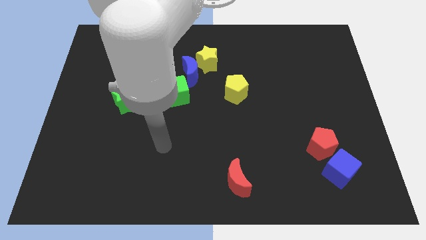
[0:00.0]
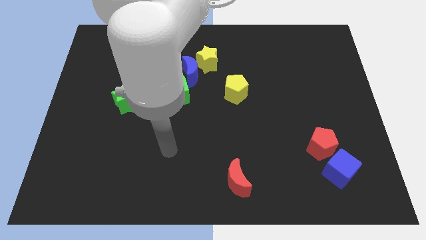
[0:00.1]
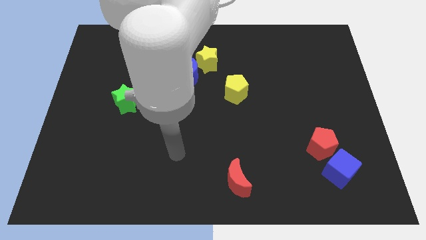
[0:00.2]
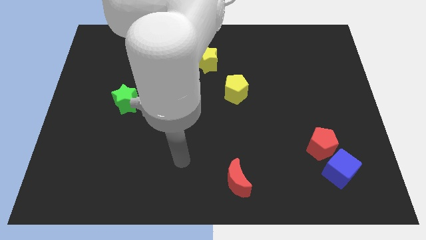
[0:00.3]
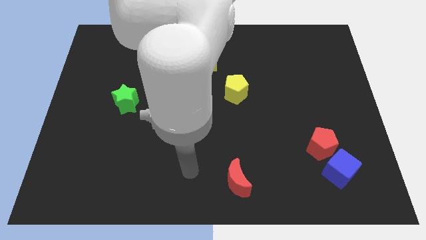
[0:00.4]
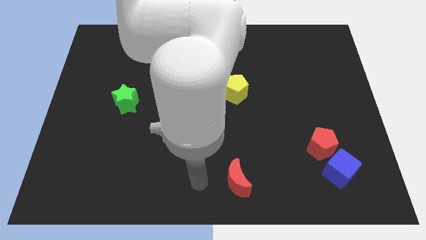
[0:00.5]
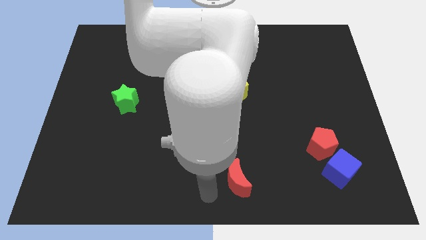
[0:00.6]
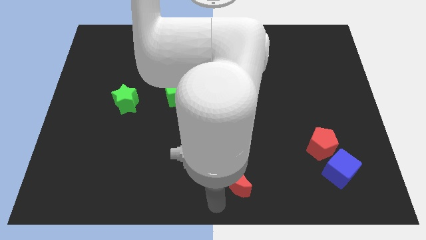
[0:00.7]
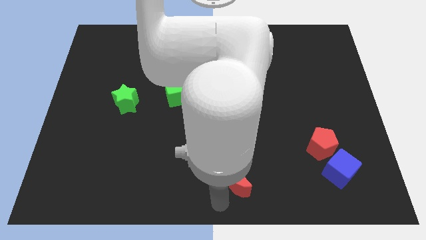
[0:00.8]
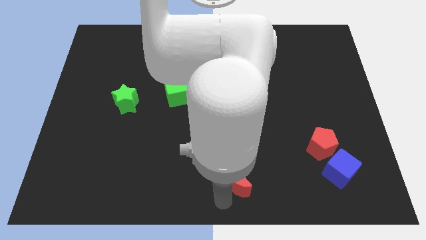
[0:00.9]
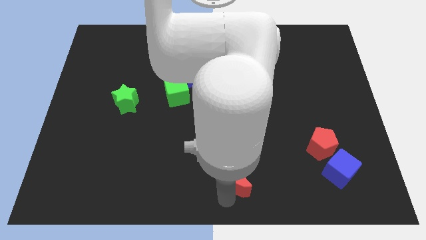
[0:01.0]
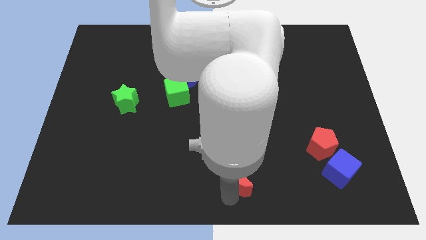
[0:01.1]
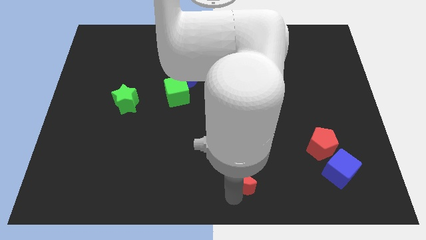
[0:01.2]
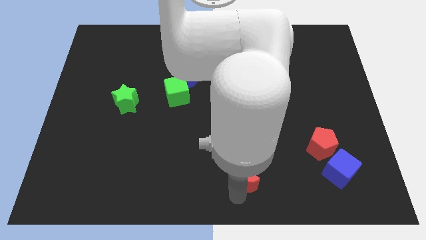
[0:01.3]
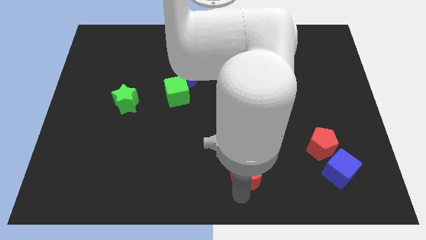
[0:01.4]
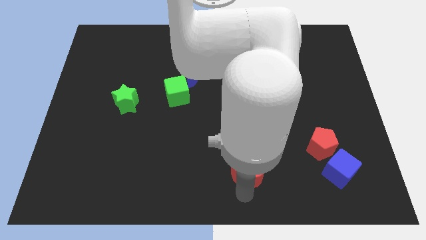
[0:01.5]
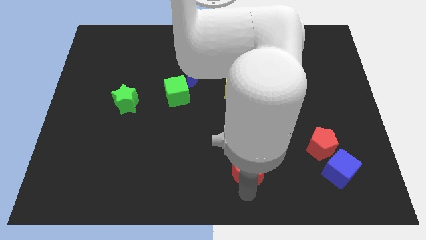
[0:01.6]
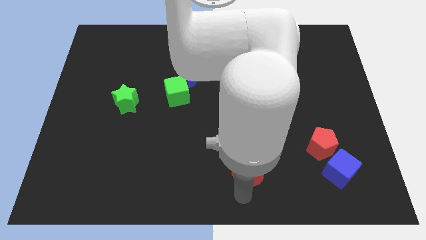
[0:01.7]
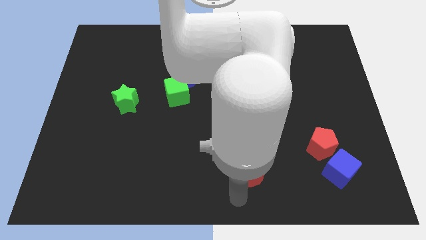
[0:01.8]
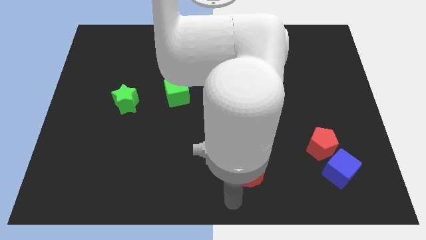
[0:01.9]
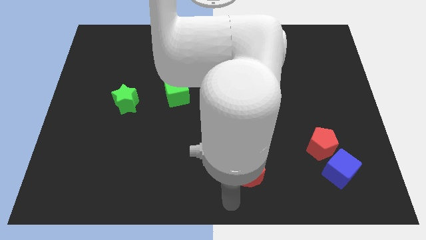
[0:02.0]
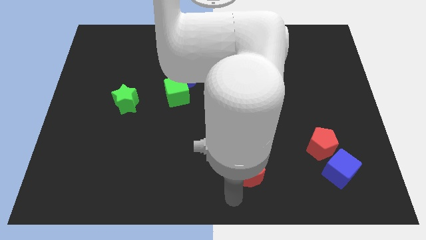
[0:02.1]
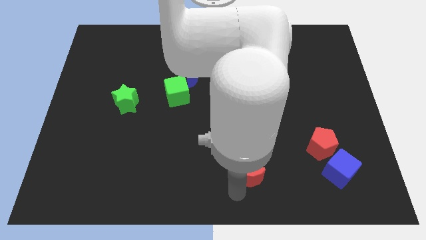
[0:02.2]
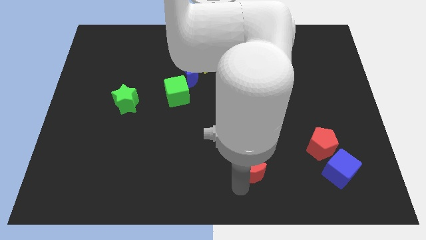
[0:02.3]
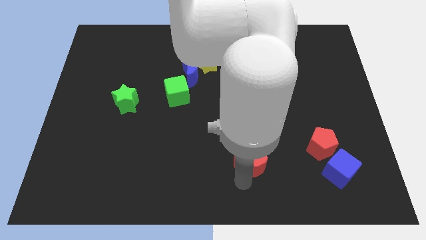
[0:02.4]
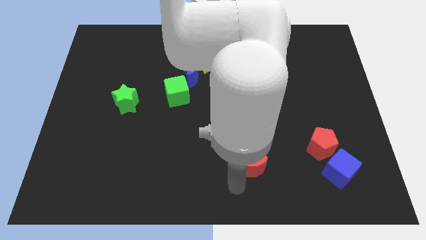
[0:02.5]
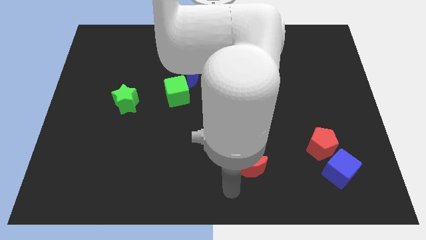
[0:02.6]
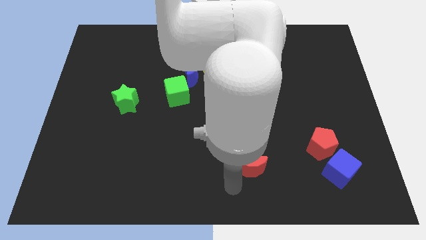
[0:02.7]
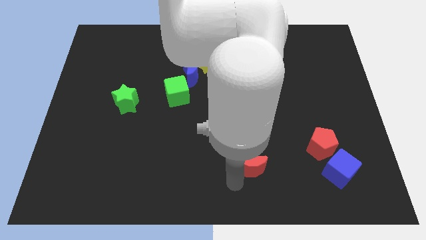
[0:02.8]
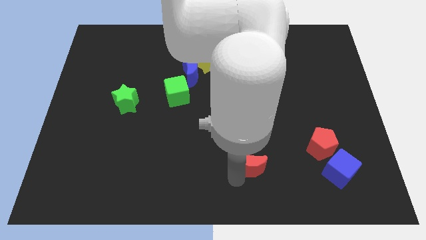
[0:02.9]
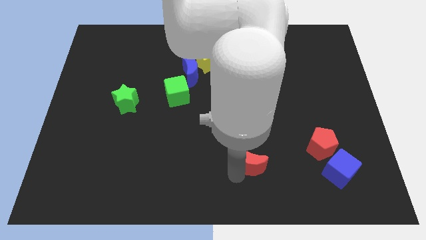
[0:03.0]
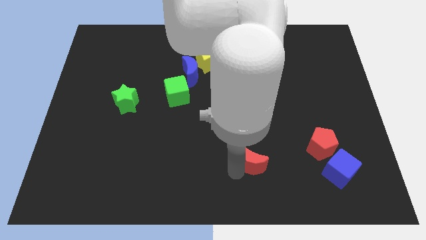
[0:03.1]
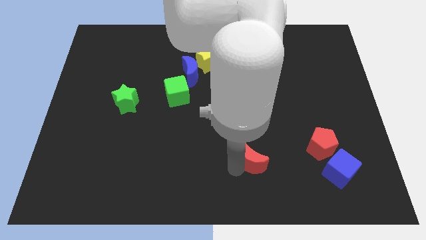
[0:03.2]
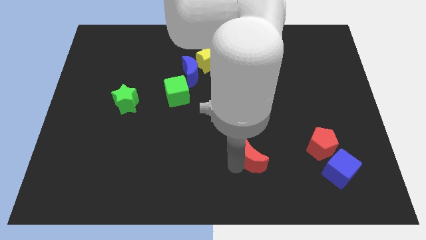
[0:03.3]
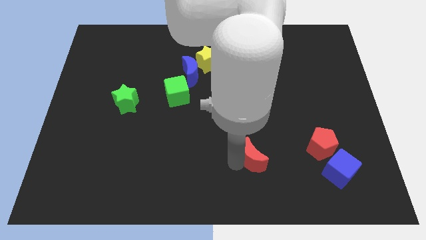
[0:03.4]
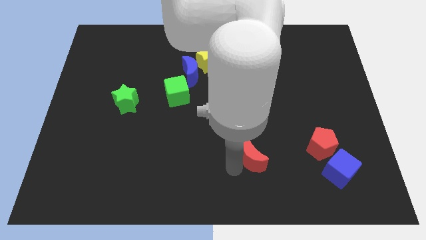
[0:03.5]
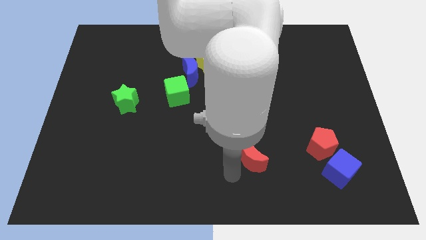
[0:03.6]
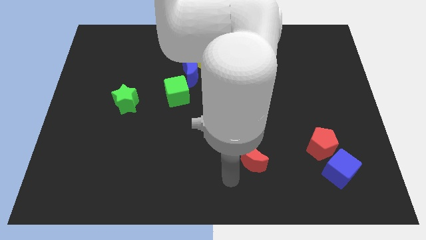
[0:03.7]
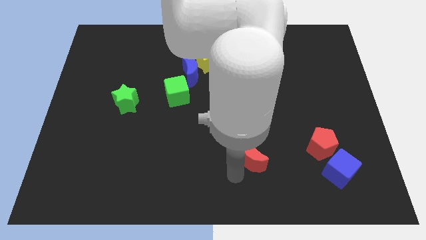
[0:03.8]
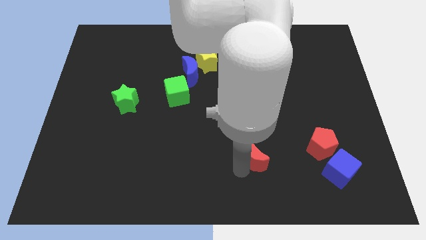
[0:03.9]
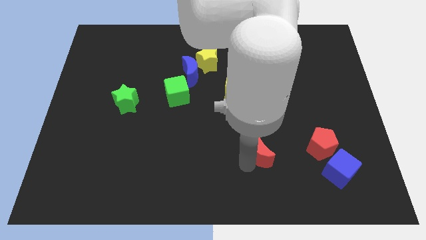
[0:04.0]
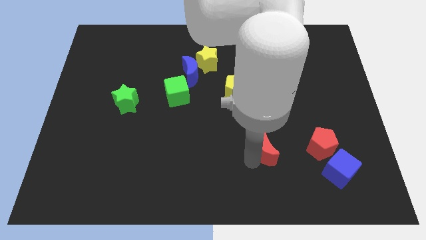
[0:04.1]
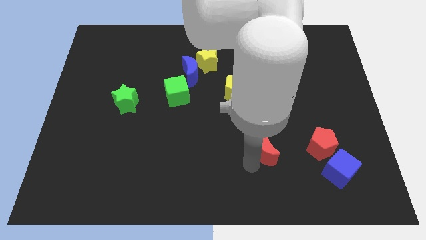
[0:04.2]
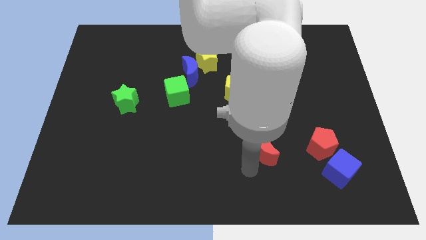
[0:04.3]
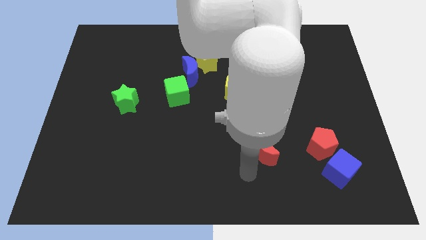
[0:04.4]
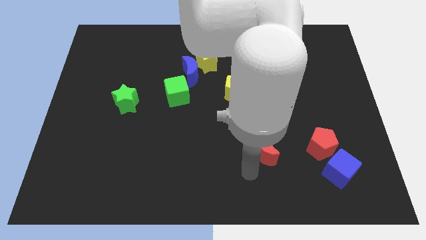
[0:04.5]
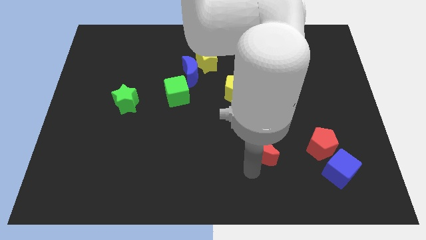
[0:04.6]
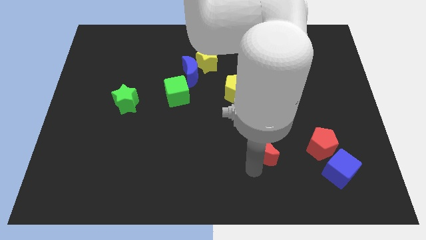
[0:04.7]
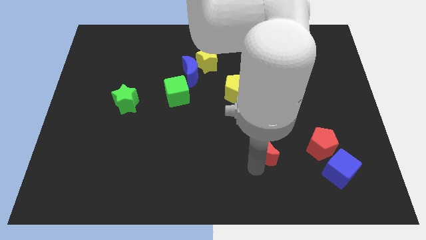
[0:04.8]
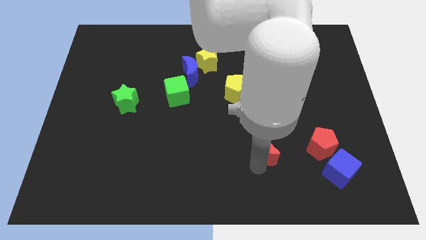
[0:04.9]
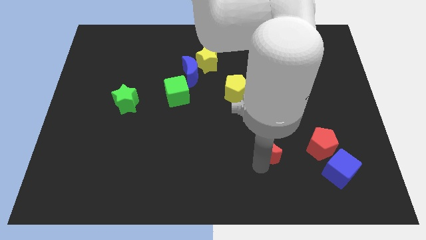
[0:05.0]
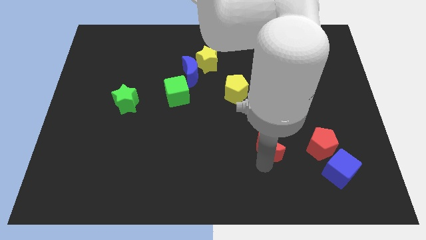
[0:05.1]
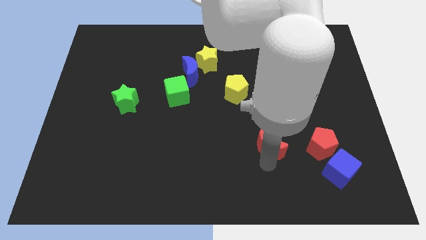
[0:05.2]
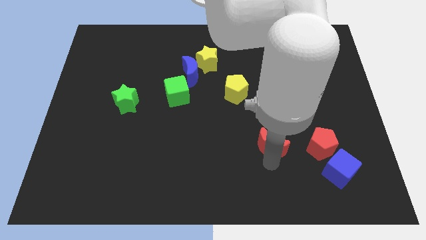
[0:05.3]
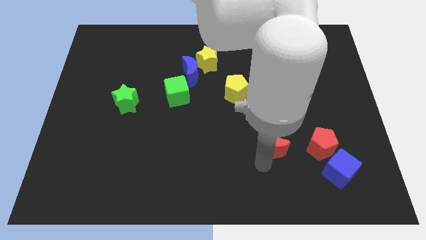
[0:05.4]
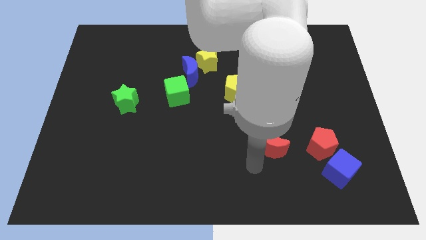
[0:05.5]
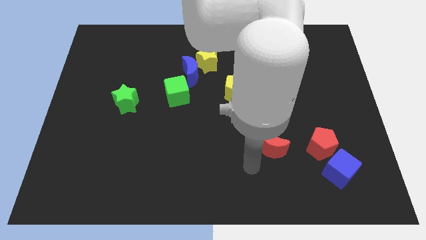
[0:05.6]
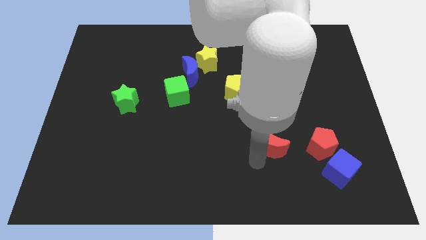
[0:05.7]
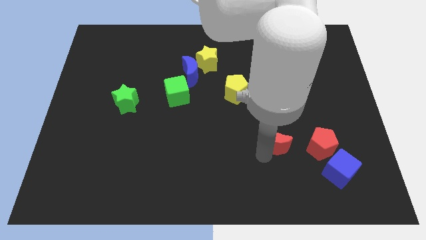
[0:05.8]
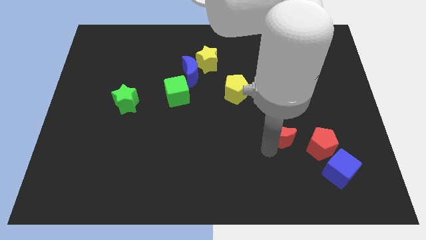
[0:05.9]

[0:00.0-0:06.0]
put the red moon to the top left side of the red pentagon

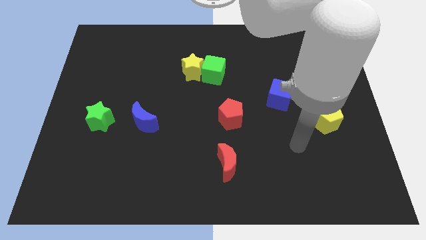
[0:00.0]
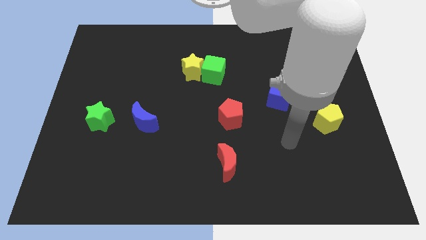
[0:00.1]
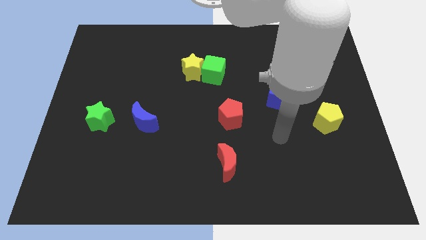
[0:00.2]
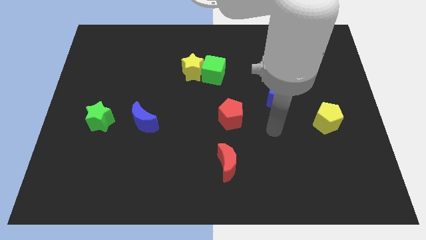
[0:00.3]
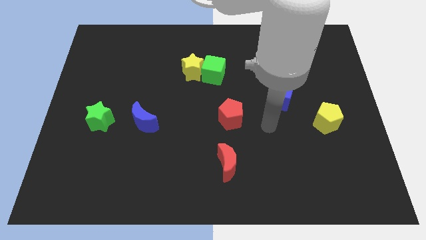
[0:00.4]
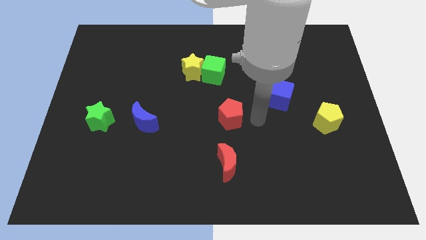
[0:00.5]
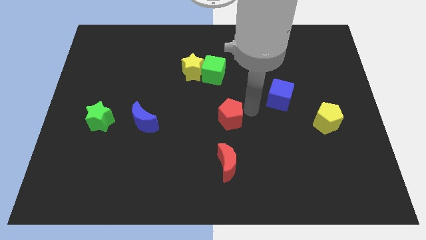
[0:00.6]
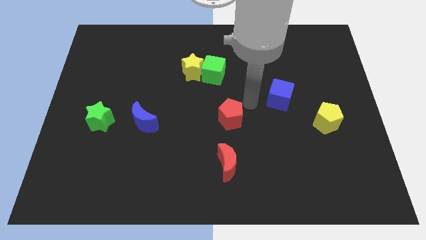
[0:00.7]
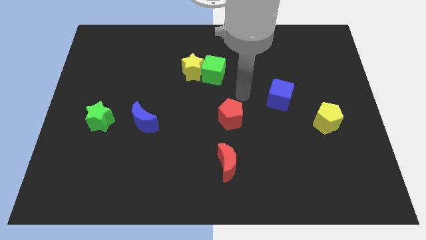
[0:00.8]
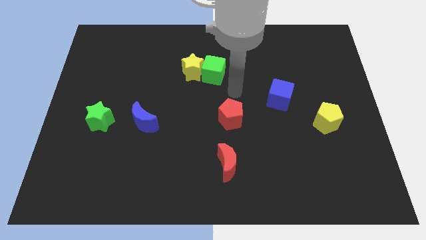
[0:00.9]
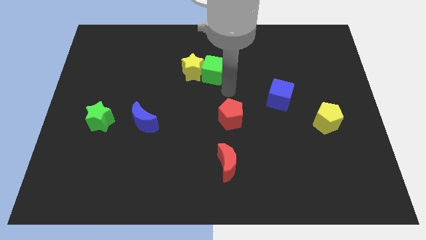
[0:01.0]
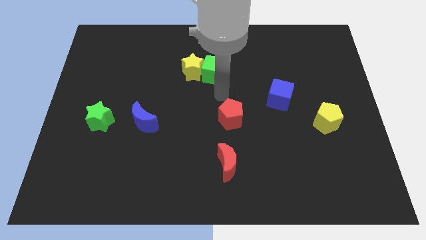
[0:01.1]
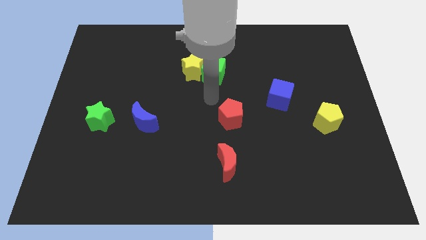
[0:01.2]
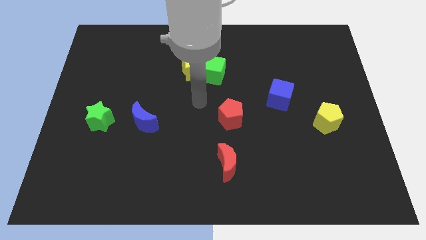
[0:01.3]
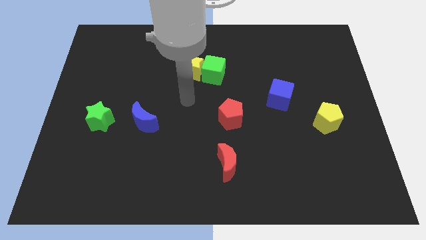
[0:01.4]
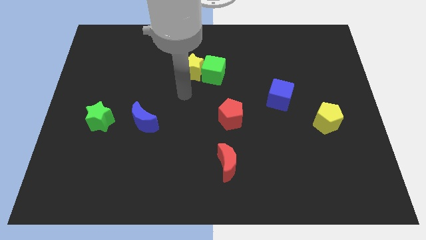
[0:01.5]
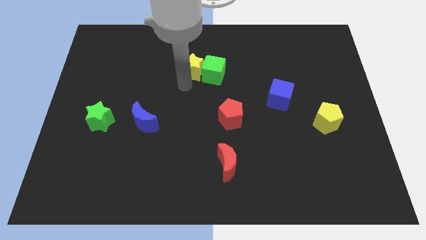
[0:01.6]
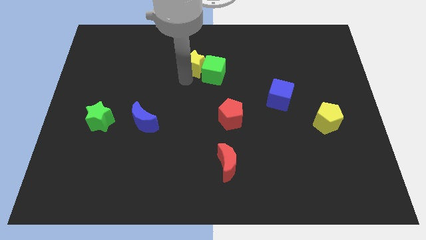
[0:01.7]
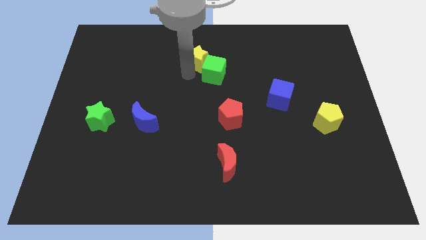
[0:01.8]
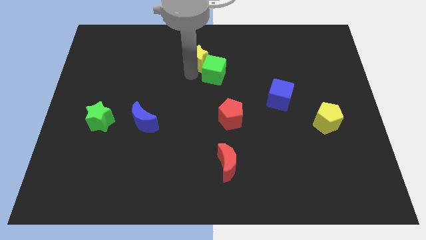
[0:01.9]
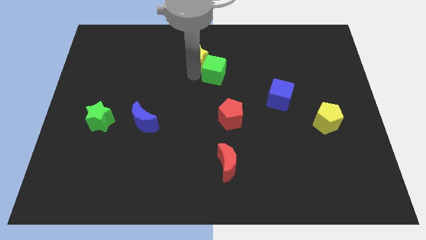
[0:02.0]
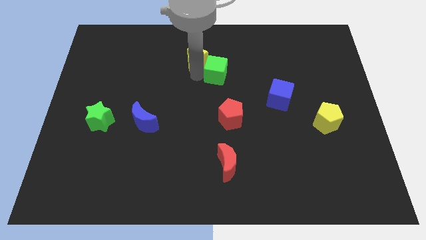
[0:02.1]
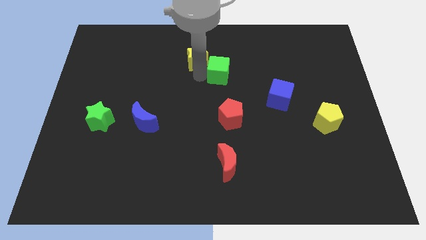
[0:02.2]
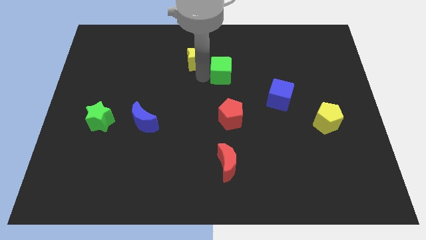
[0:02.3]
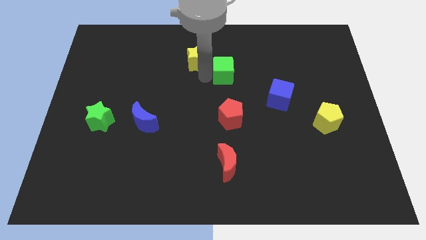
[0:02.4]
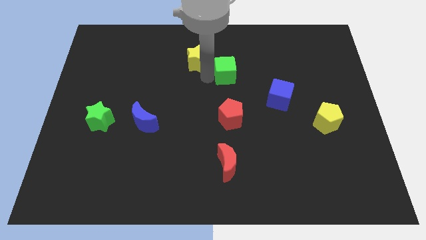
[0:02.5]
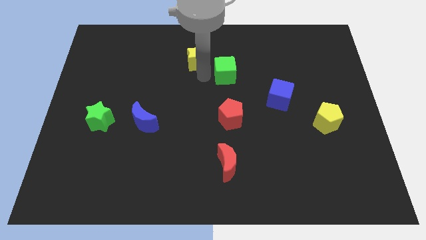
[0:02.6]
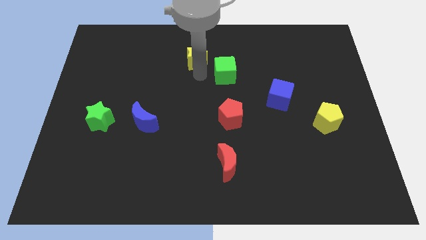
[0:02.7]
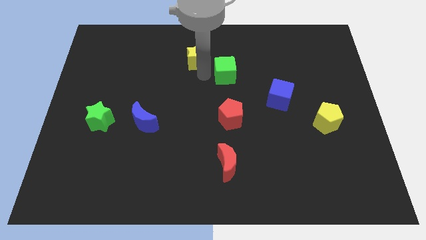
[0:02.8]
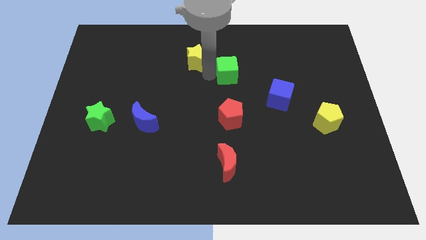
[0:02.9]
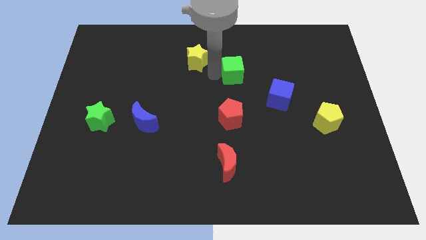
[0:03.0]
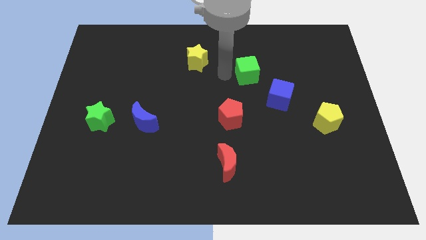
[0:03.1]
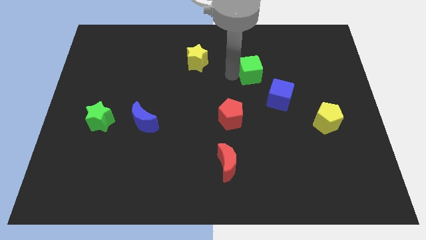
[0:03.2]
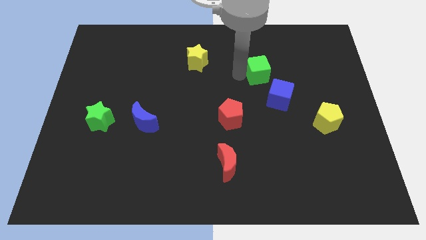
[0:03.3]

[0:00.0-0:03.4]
move the green cube to the top side of the blue cube
